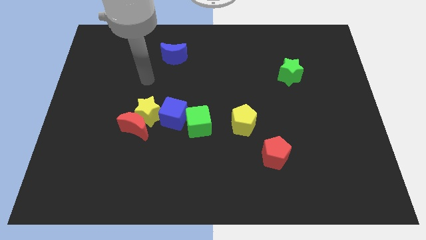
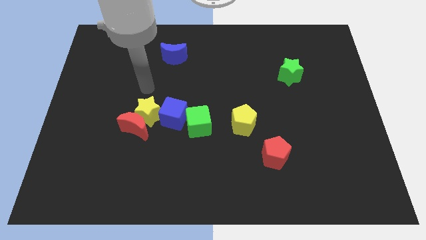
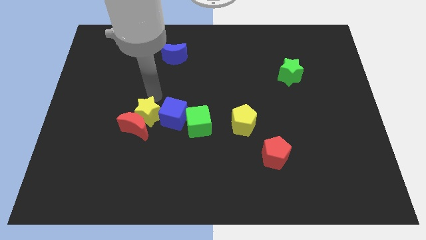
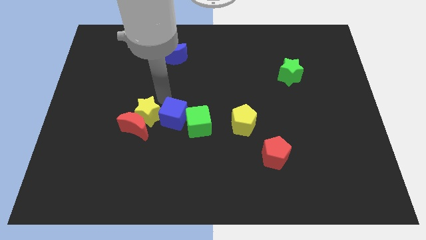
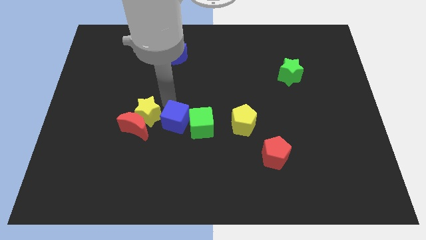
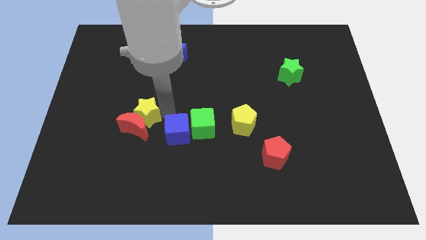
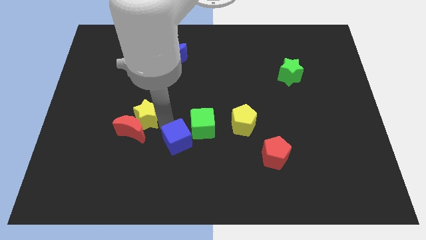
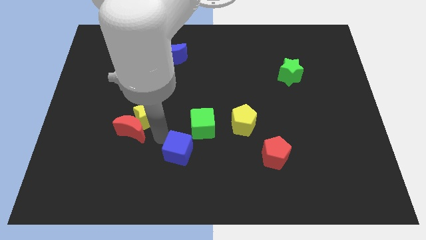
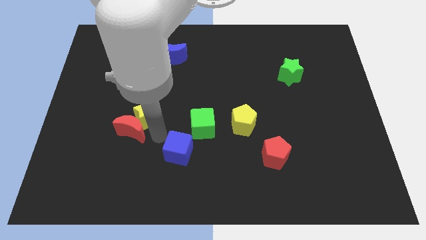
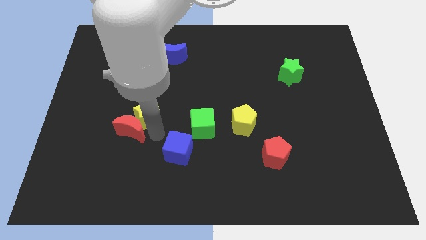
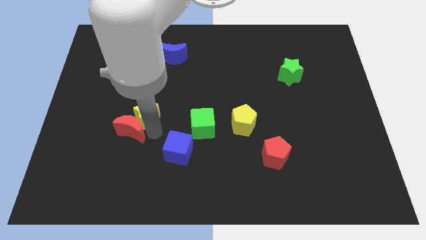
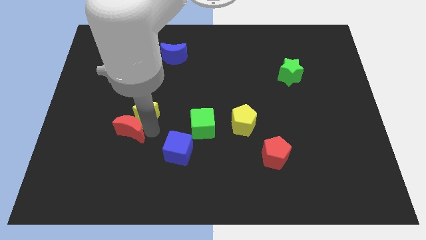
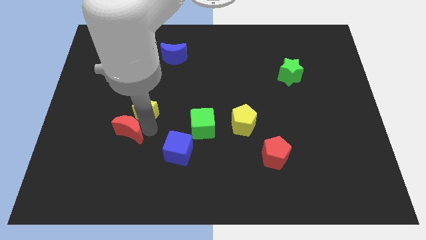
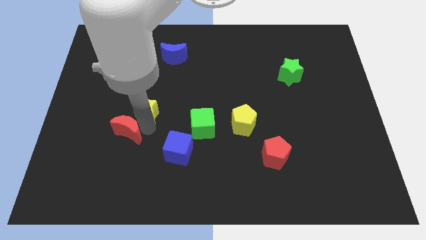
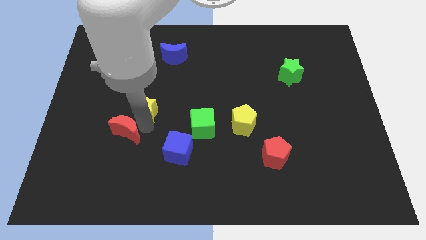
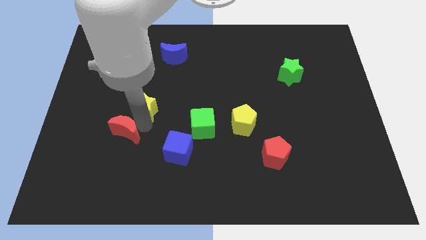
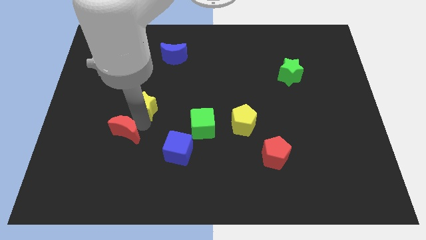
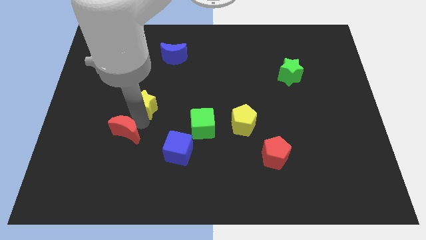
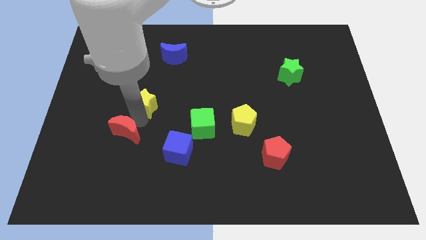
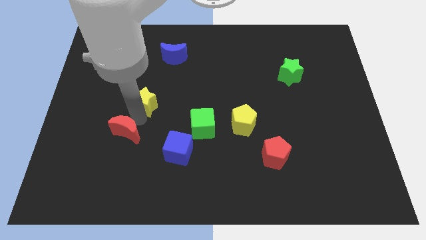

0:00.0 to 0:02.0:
pull the yellow star apart from the red moon and blue cube

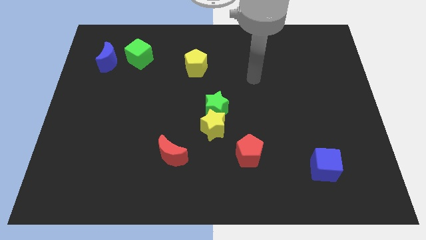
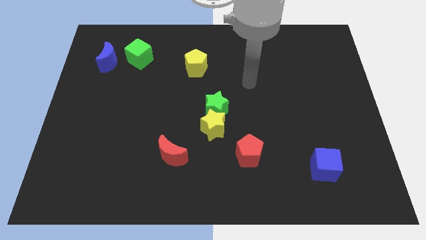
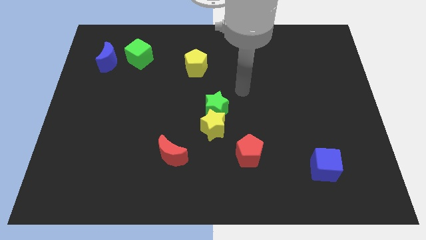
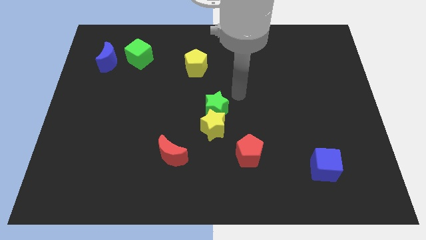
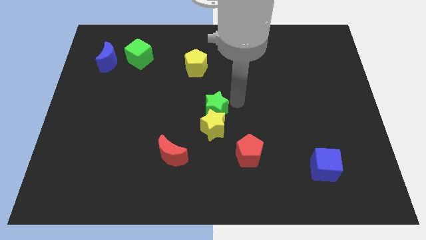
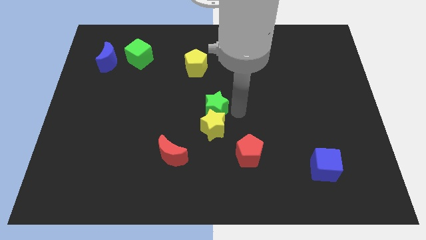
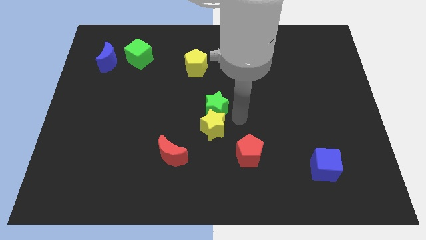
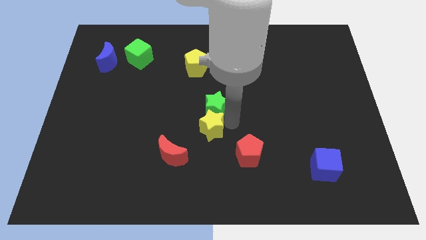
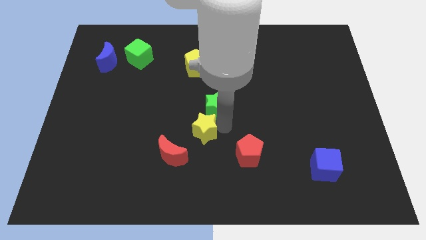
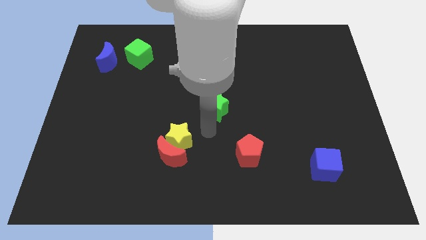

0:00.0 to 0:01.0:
separate the green star from the yellow star

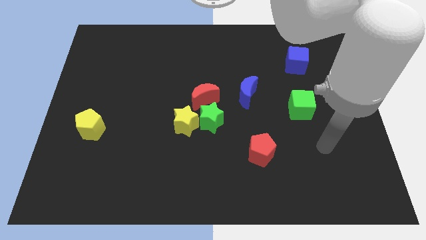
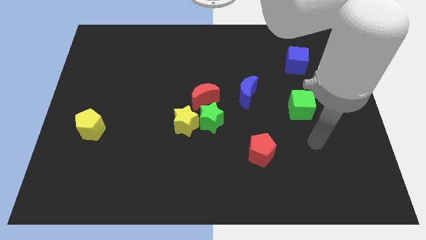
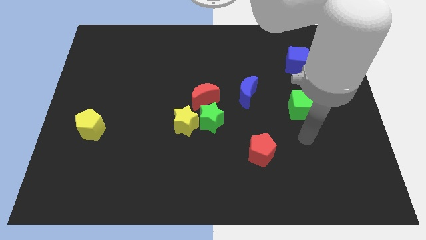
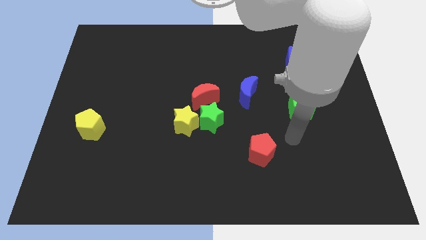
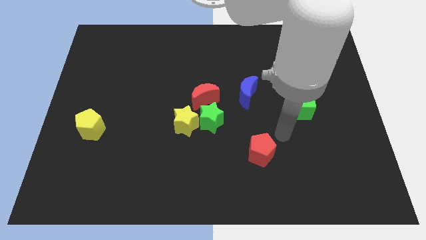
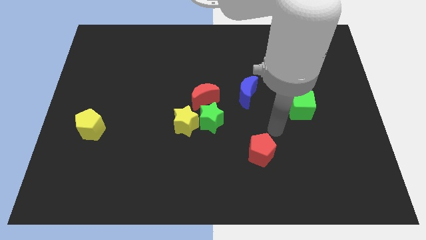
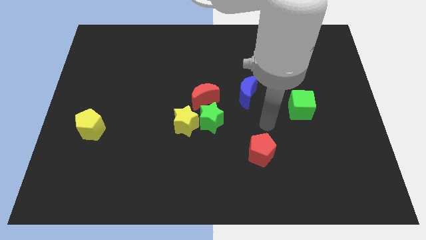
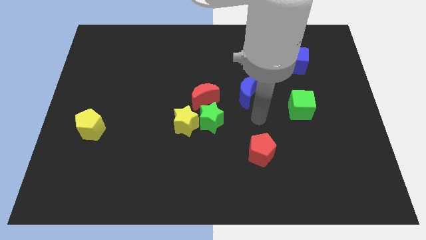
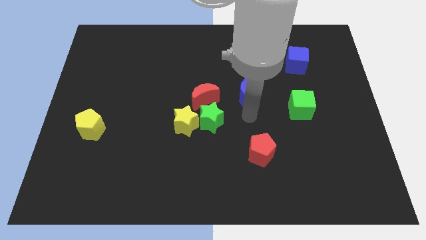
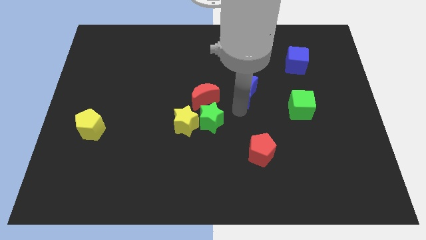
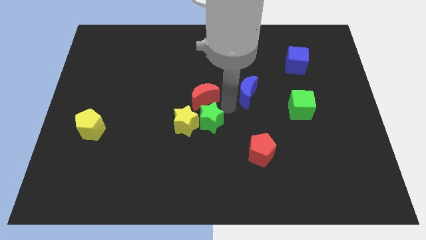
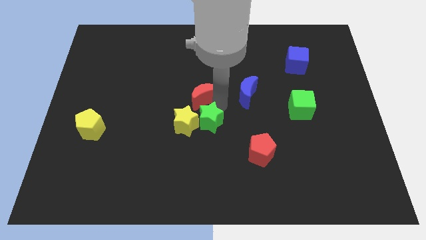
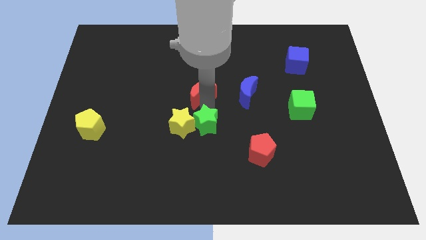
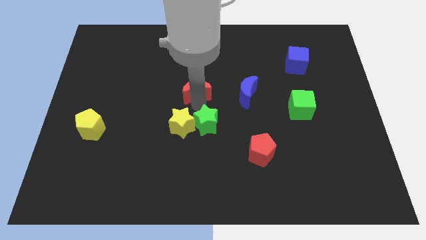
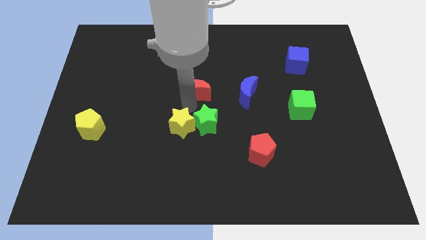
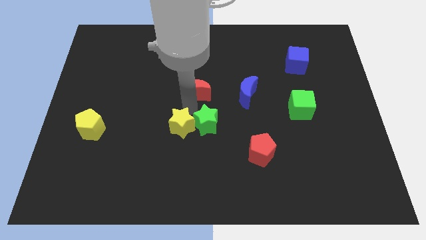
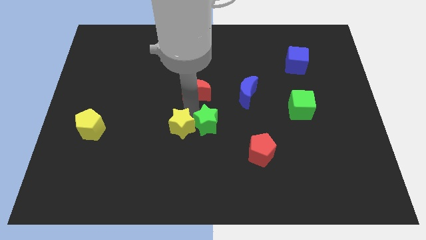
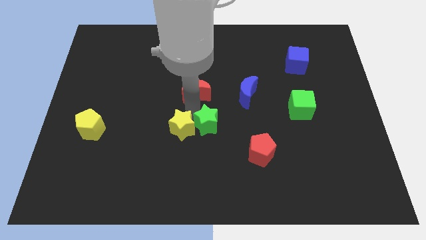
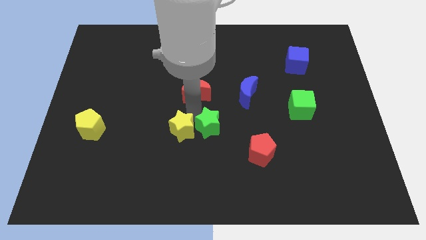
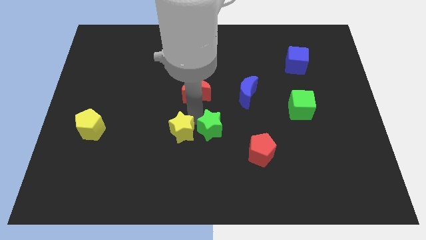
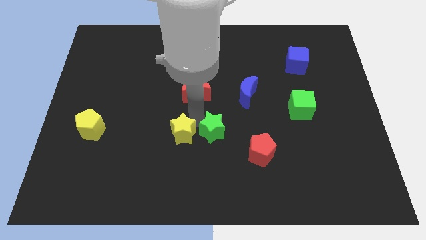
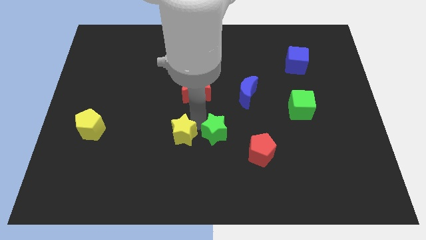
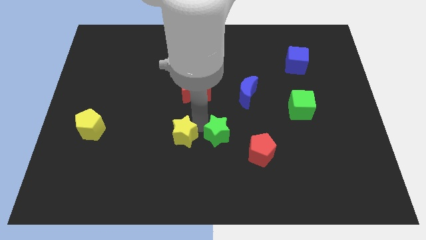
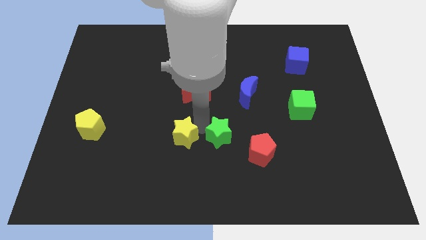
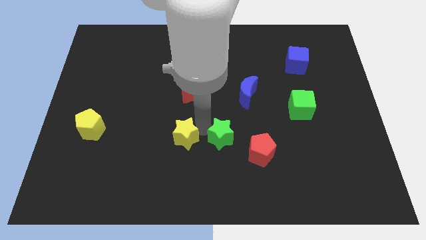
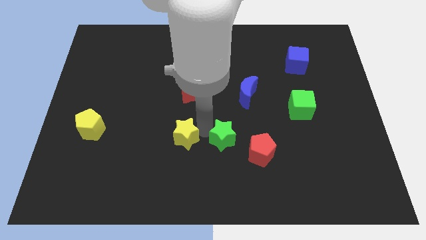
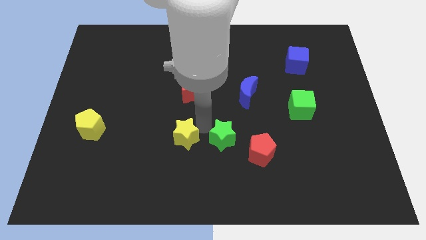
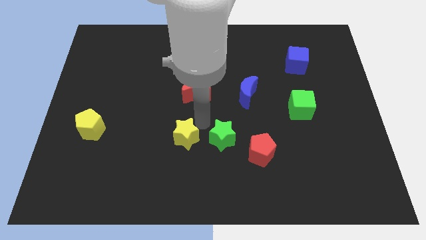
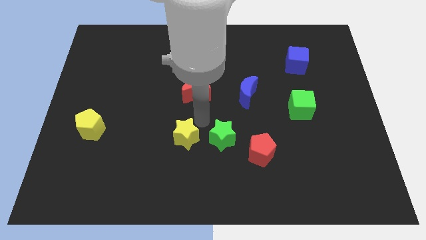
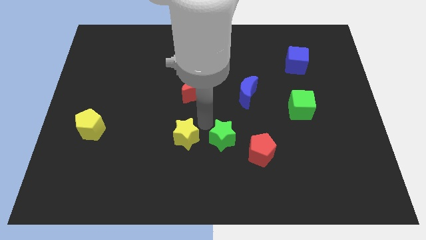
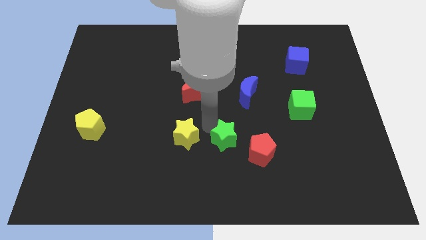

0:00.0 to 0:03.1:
move the green star away from the yellow star and red moon

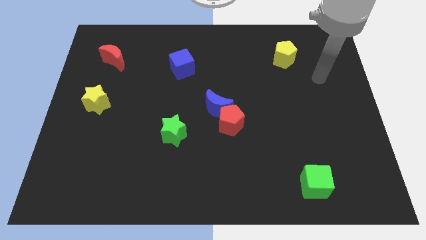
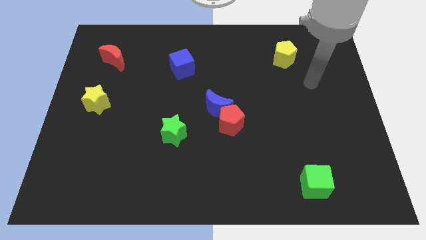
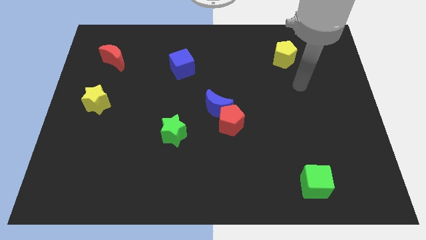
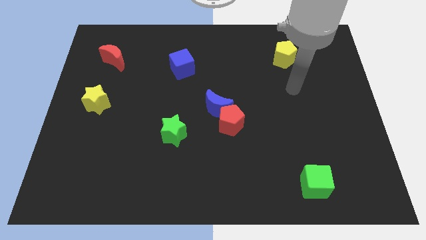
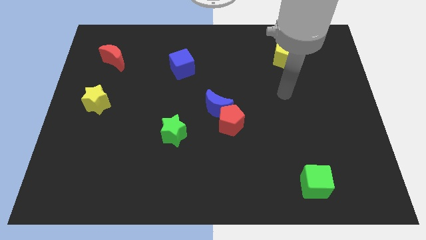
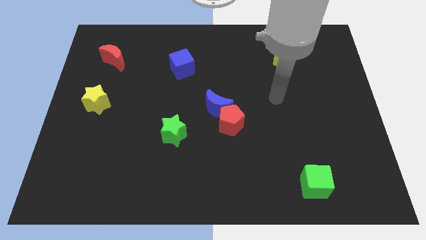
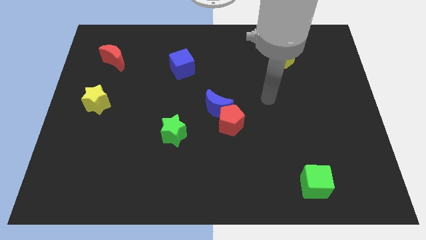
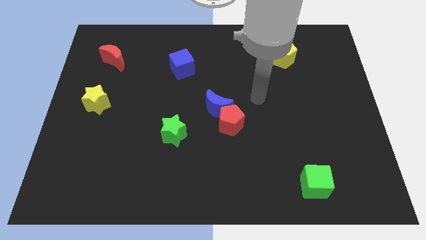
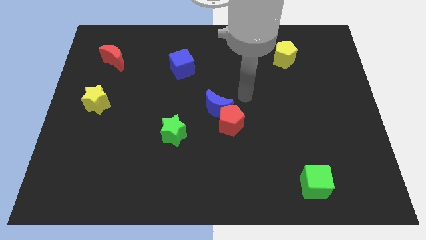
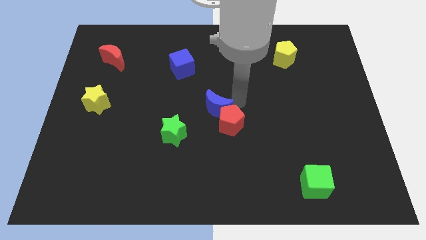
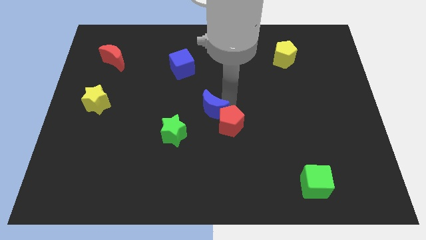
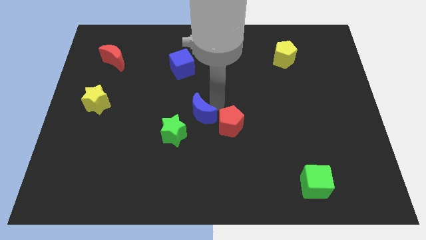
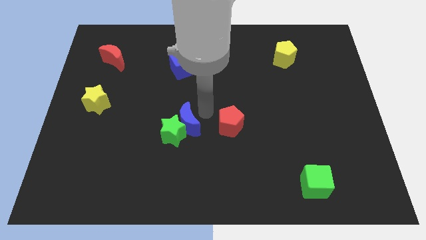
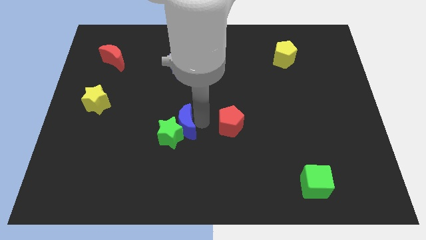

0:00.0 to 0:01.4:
separate the red pentagon from the blue moon

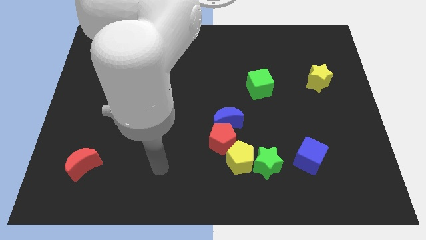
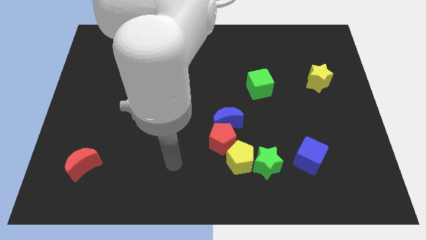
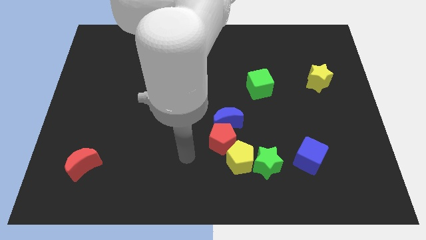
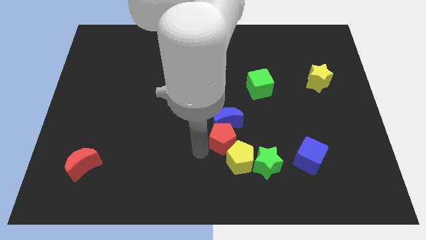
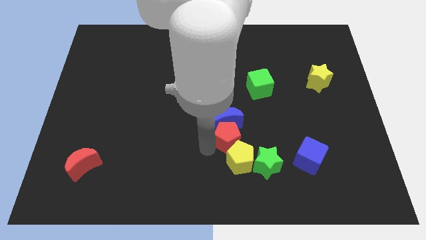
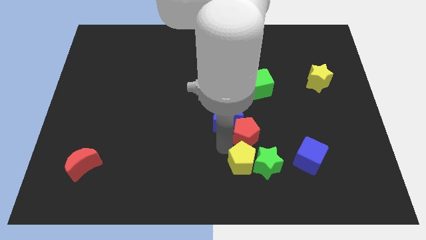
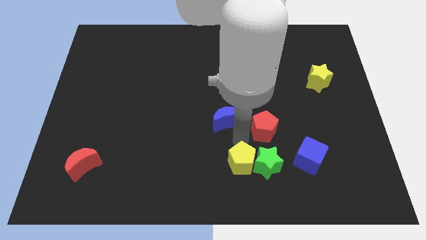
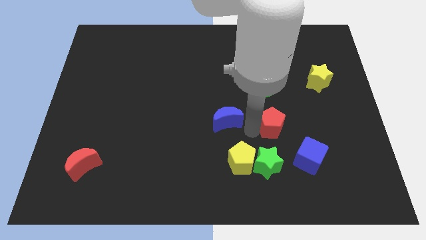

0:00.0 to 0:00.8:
separate the blue moon from the red pentagon

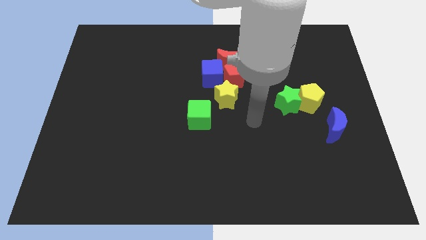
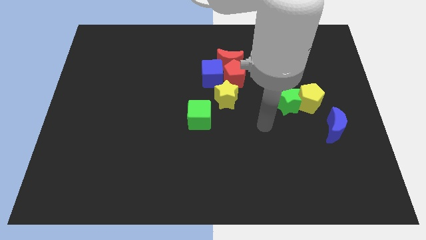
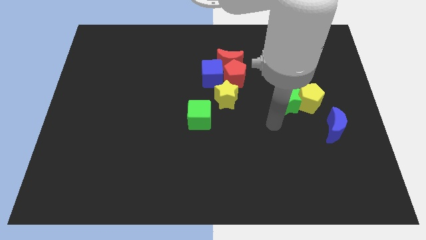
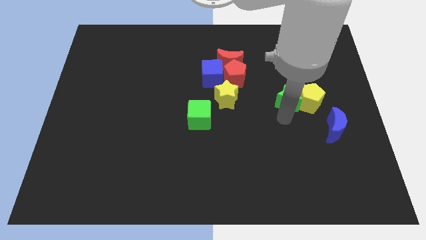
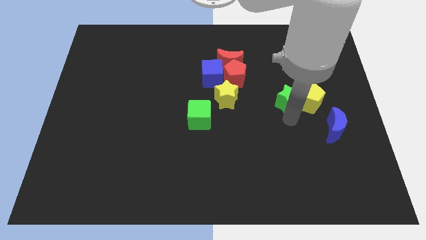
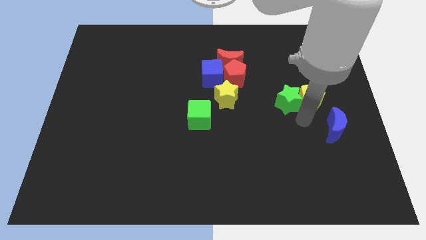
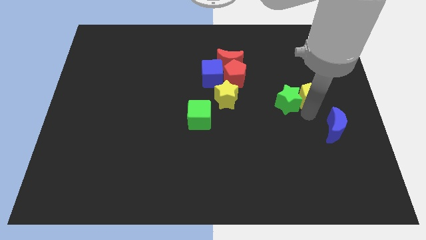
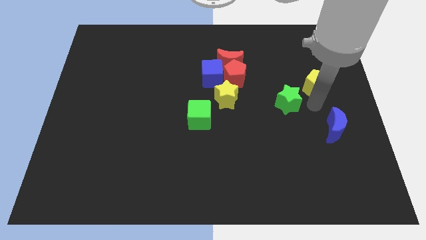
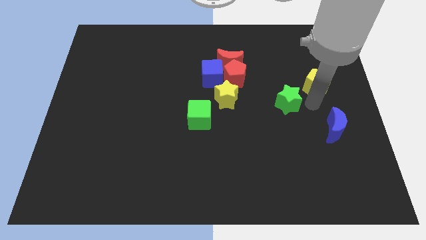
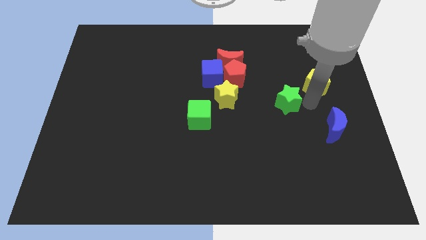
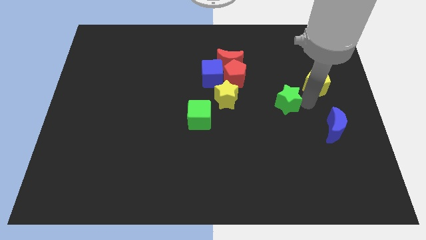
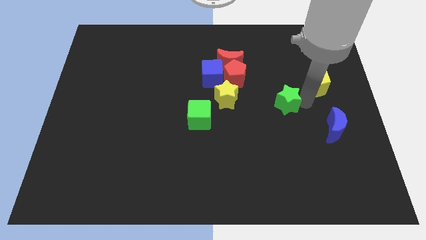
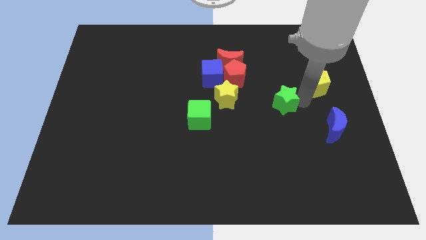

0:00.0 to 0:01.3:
separate the green star from the yellow pentagon
